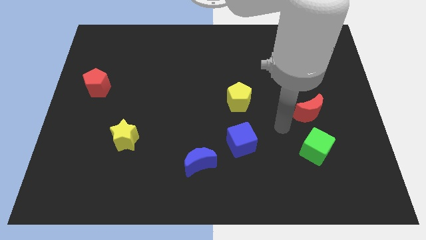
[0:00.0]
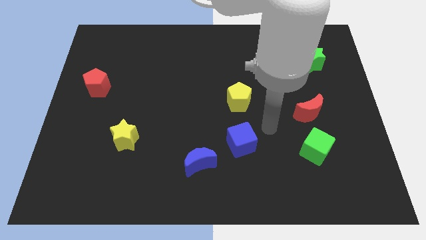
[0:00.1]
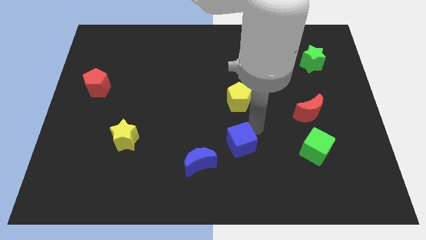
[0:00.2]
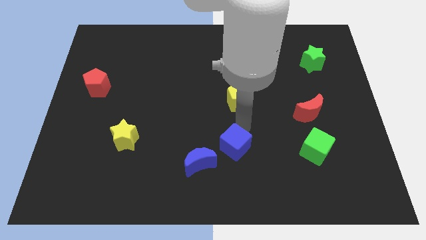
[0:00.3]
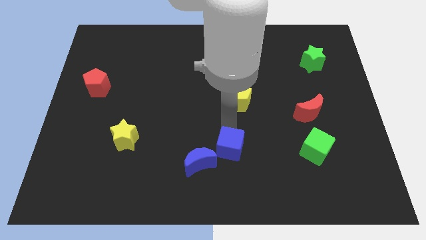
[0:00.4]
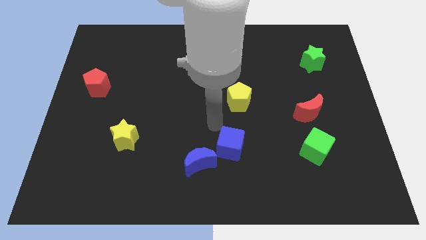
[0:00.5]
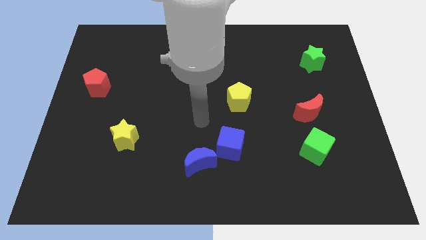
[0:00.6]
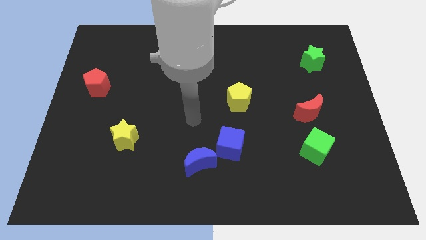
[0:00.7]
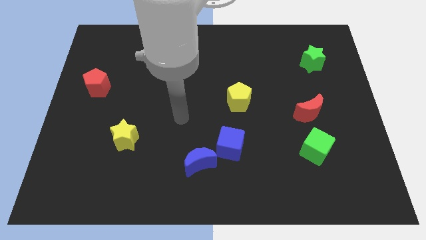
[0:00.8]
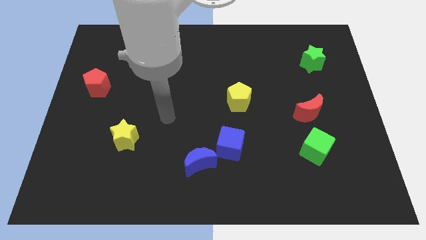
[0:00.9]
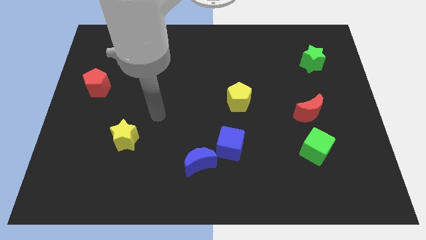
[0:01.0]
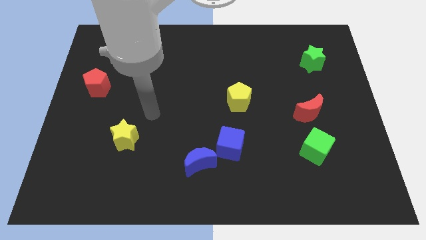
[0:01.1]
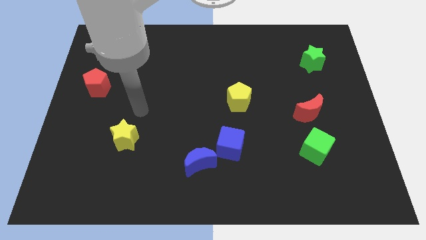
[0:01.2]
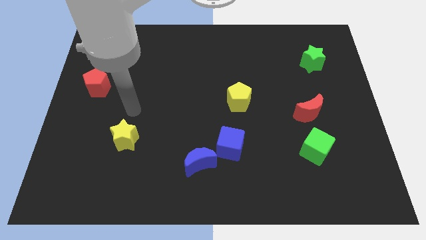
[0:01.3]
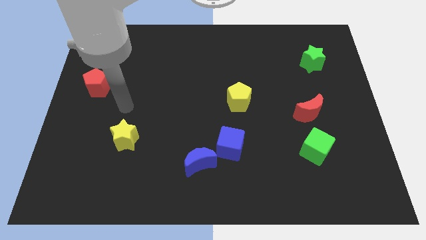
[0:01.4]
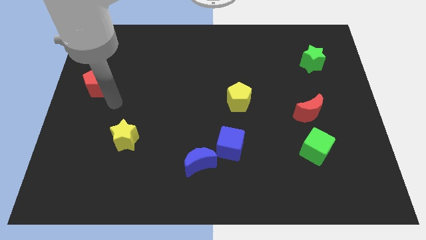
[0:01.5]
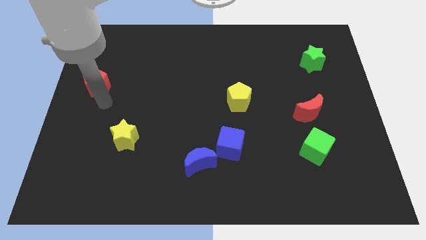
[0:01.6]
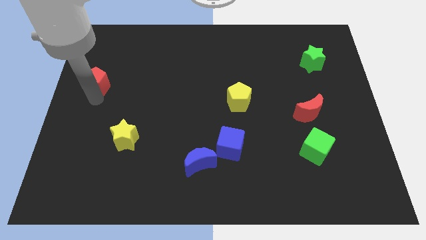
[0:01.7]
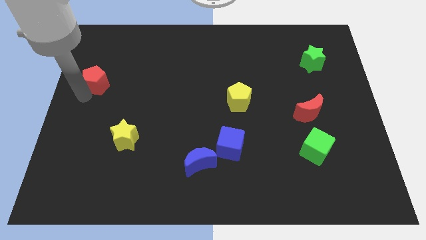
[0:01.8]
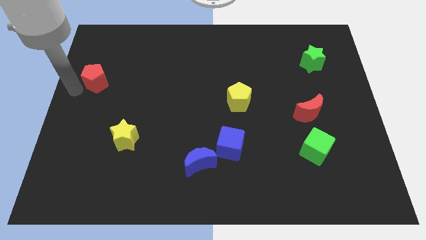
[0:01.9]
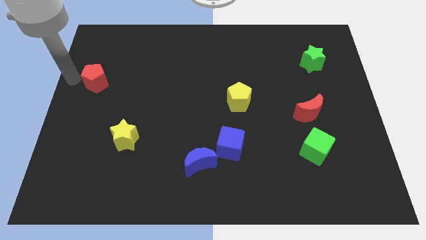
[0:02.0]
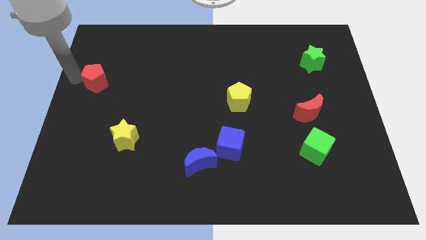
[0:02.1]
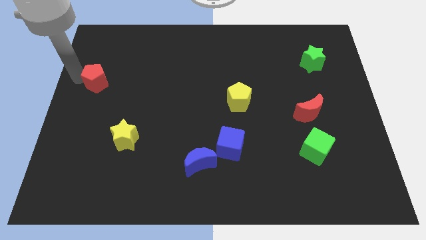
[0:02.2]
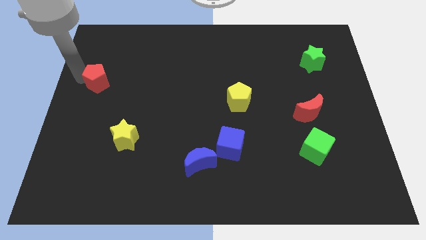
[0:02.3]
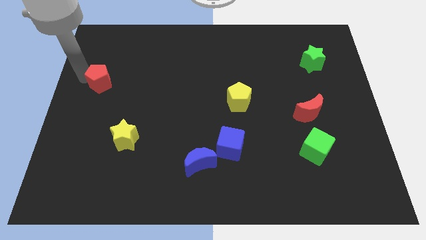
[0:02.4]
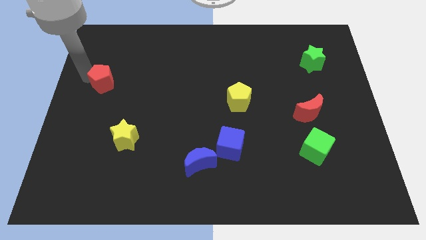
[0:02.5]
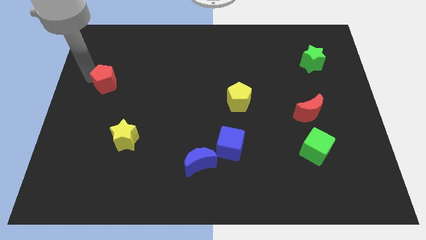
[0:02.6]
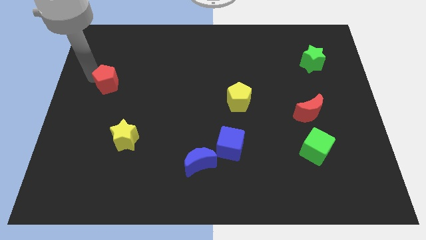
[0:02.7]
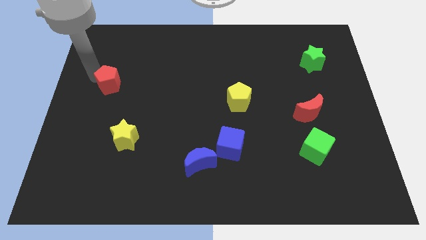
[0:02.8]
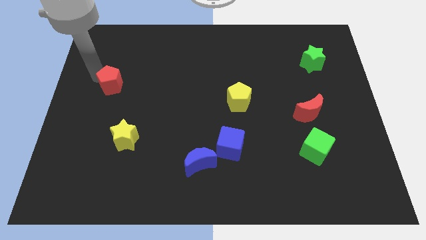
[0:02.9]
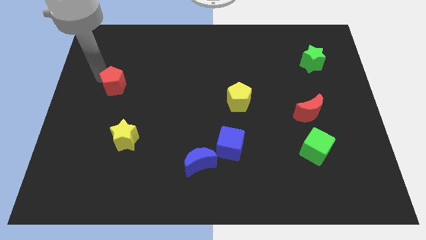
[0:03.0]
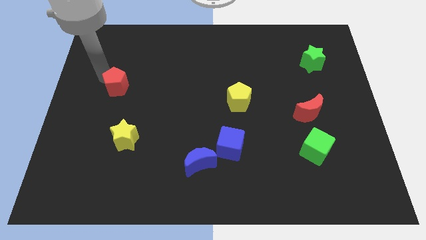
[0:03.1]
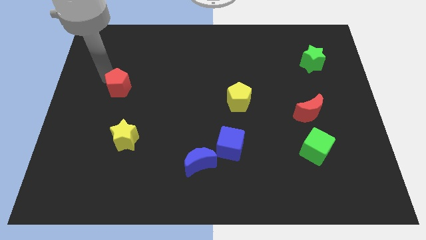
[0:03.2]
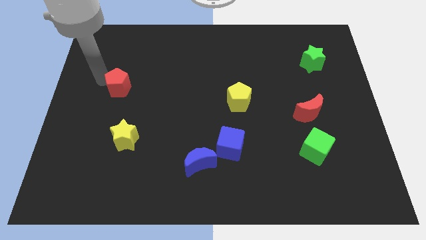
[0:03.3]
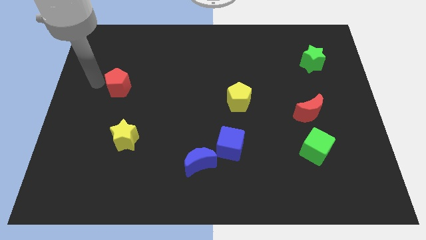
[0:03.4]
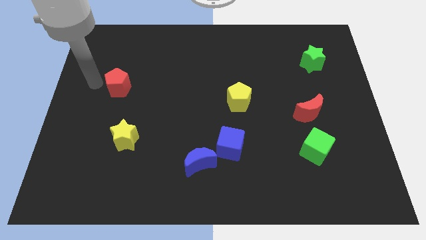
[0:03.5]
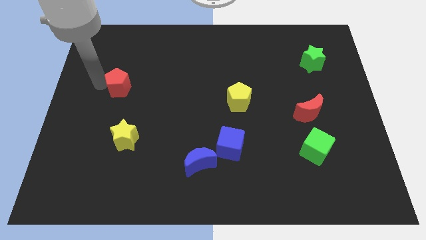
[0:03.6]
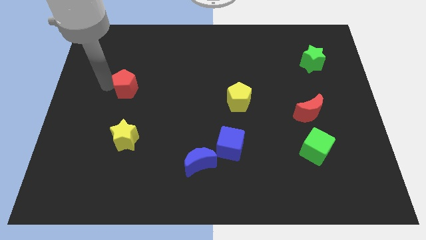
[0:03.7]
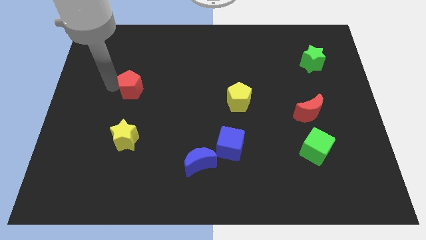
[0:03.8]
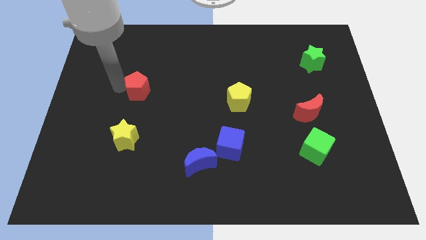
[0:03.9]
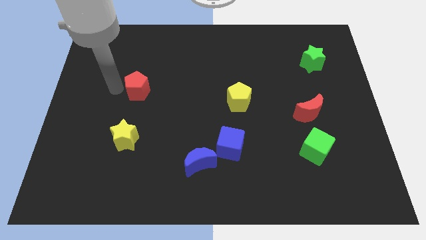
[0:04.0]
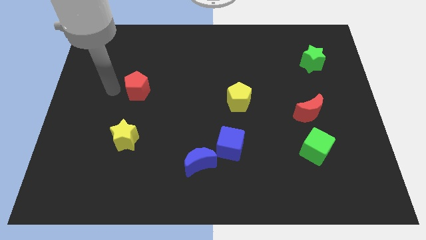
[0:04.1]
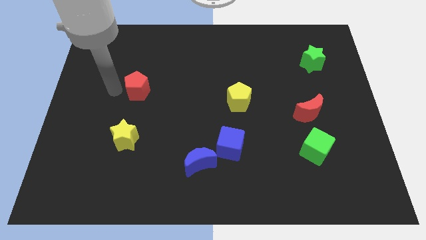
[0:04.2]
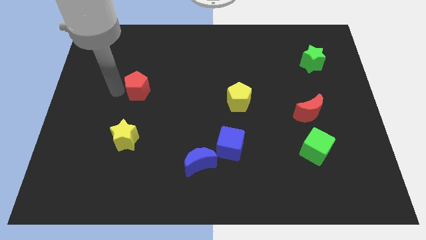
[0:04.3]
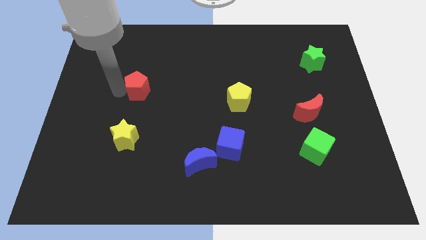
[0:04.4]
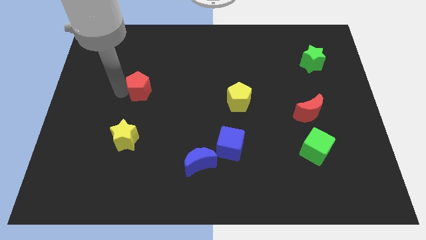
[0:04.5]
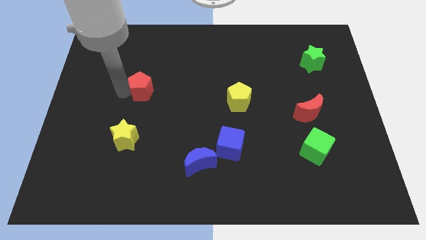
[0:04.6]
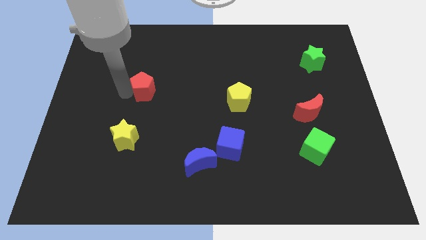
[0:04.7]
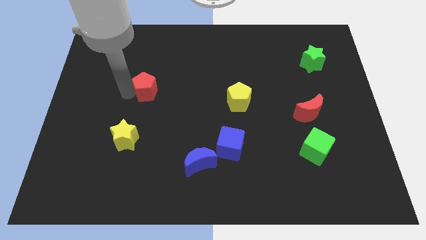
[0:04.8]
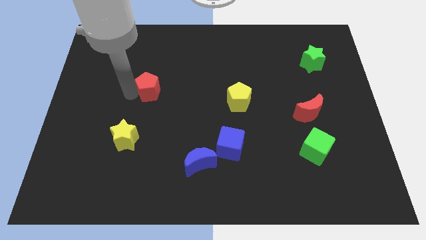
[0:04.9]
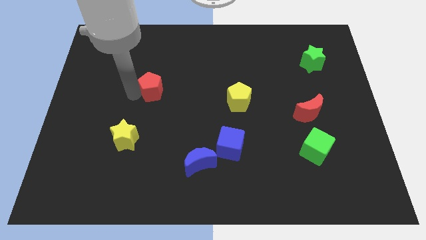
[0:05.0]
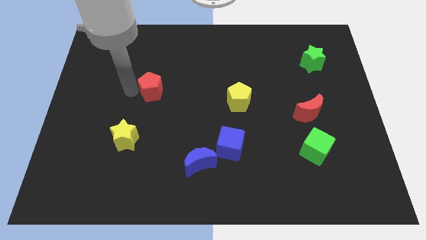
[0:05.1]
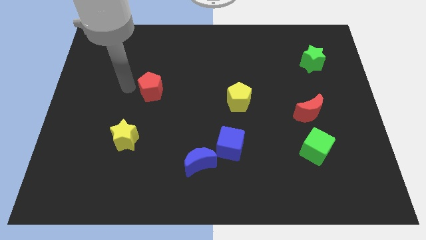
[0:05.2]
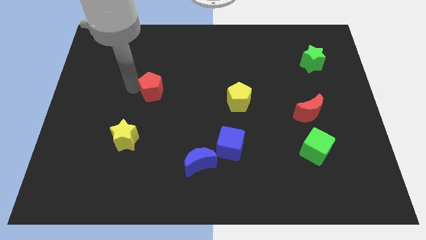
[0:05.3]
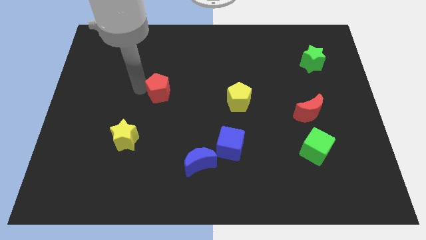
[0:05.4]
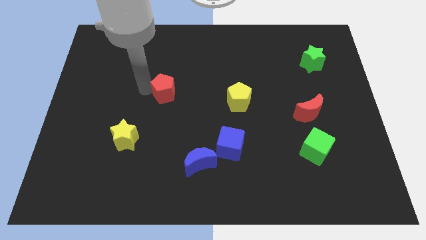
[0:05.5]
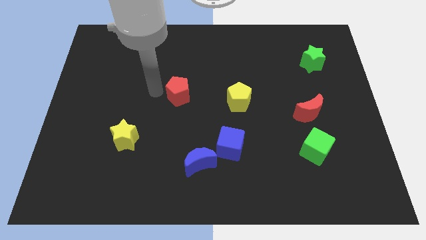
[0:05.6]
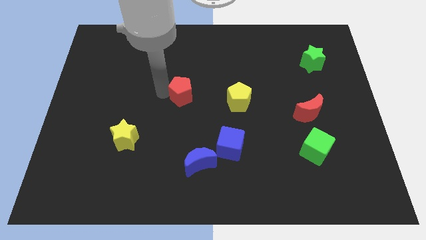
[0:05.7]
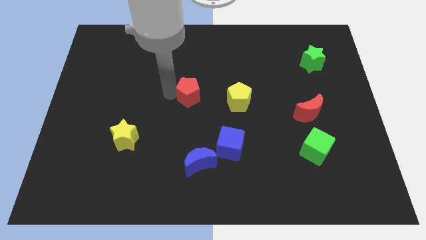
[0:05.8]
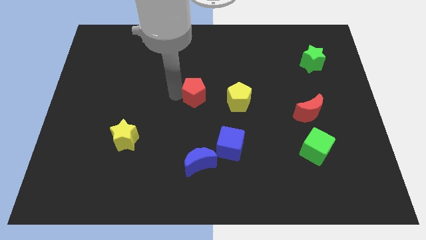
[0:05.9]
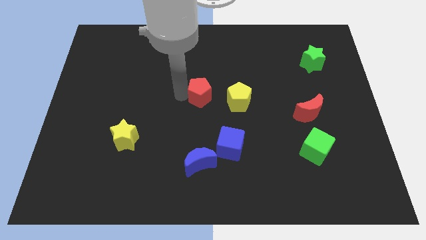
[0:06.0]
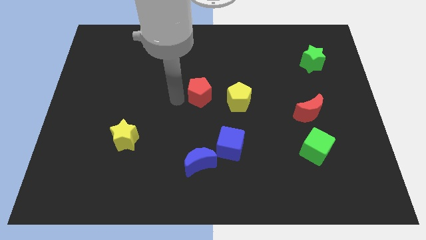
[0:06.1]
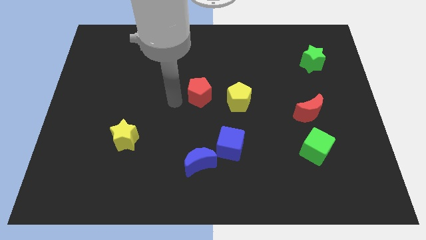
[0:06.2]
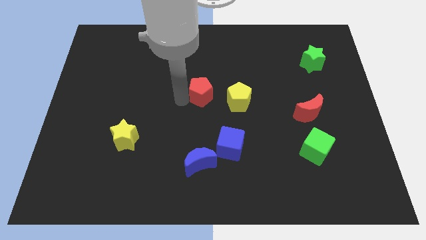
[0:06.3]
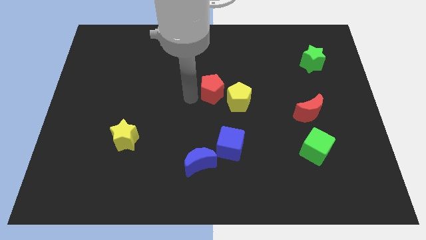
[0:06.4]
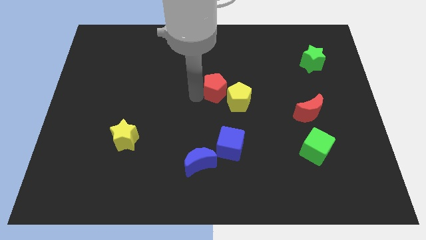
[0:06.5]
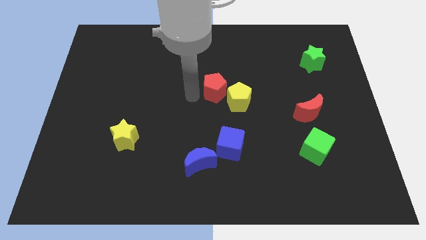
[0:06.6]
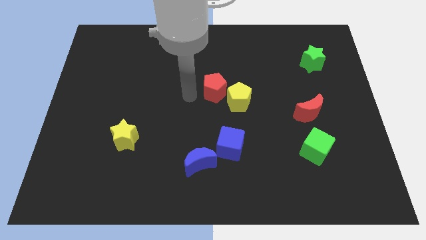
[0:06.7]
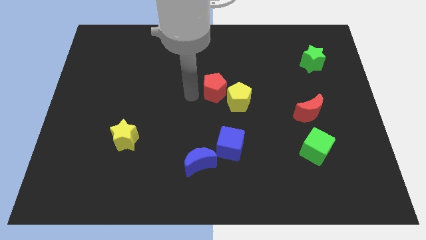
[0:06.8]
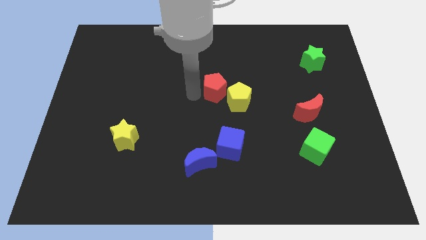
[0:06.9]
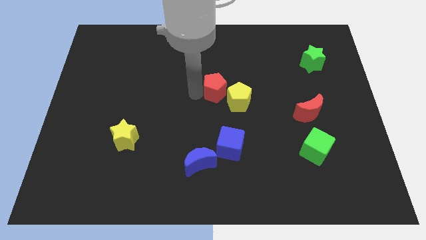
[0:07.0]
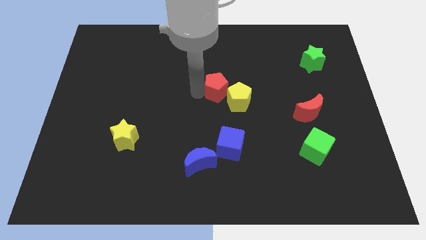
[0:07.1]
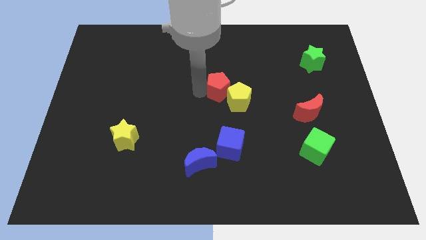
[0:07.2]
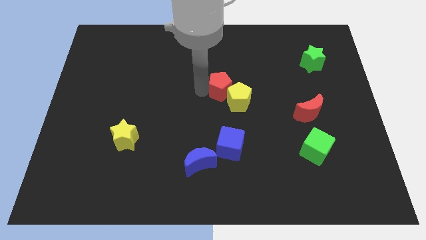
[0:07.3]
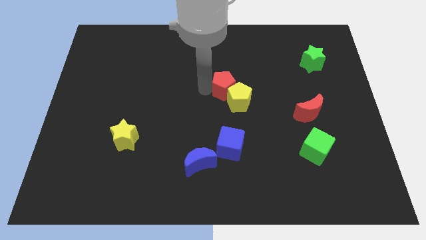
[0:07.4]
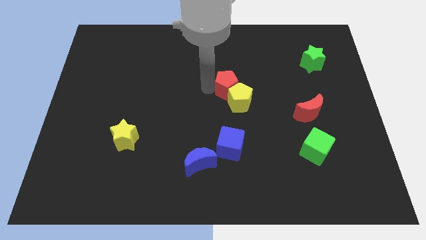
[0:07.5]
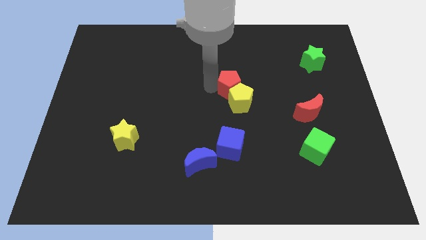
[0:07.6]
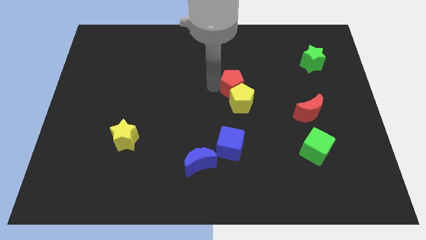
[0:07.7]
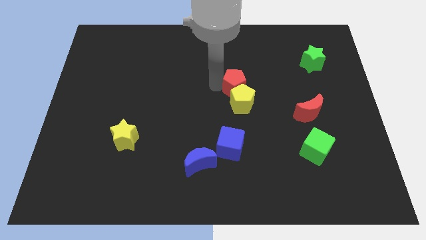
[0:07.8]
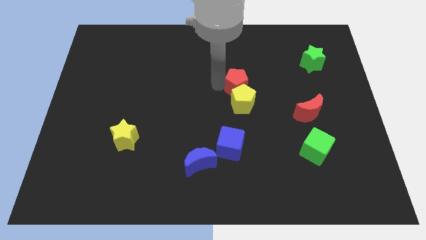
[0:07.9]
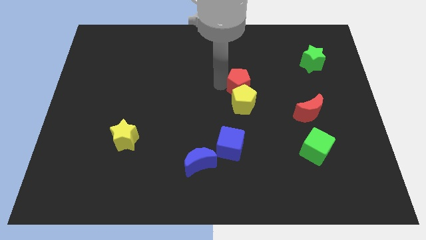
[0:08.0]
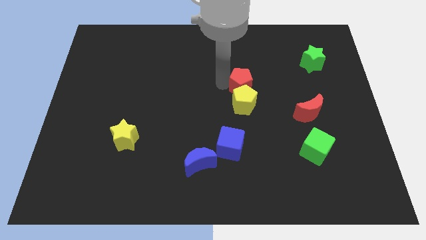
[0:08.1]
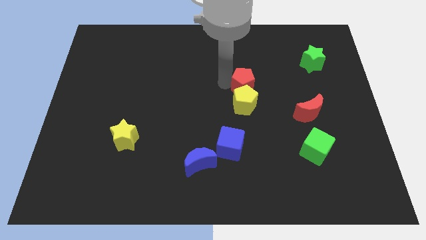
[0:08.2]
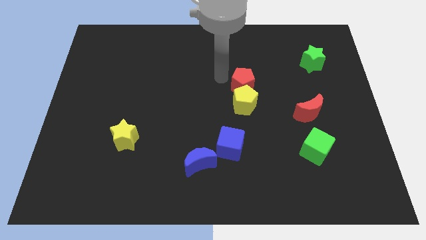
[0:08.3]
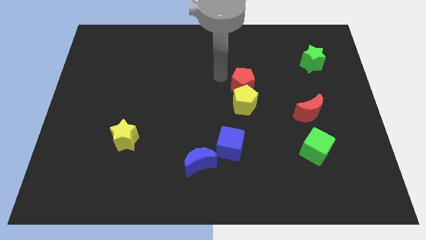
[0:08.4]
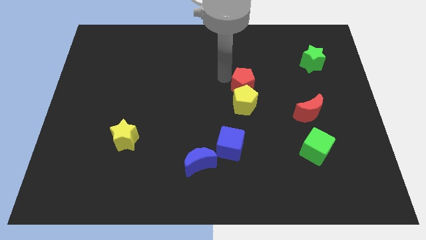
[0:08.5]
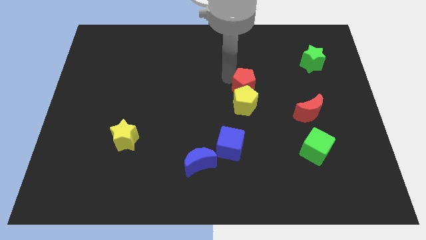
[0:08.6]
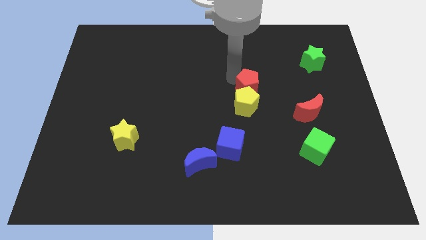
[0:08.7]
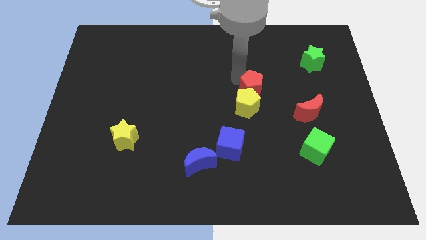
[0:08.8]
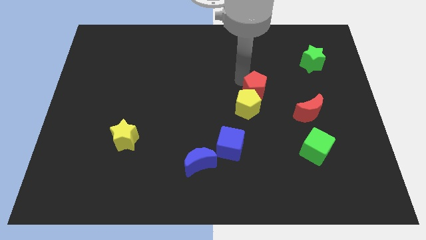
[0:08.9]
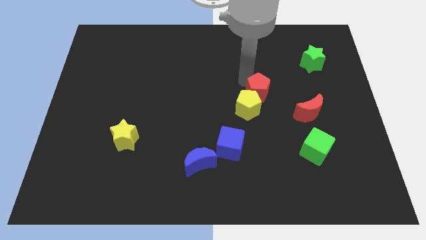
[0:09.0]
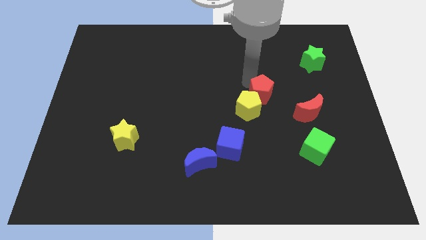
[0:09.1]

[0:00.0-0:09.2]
slide the red pentagon to the right side of the yellow pentagon
